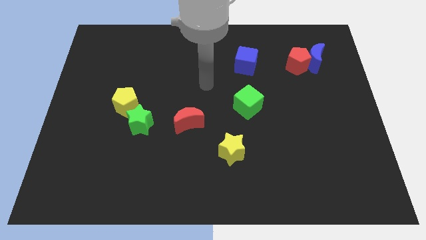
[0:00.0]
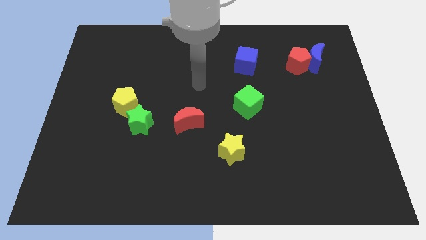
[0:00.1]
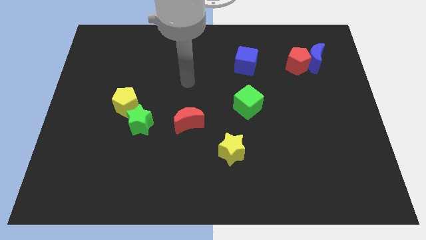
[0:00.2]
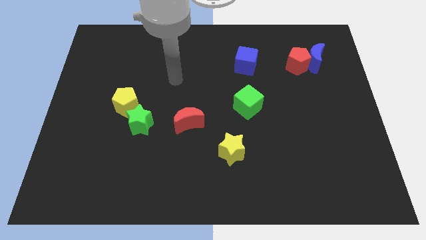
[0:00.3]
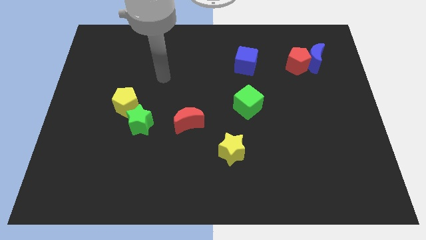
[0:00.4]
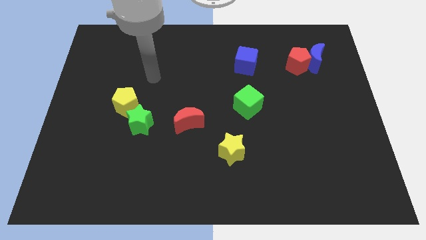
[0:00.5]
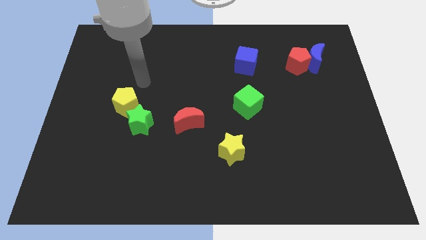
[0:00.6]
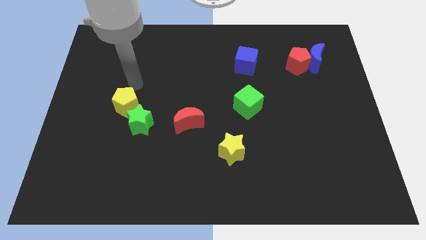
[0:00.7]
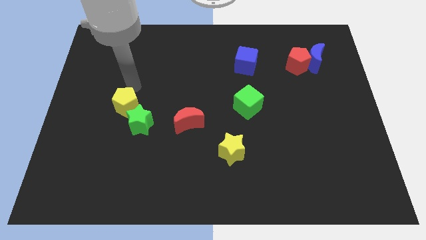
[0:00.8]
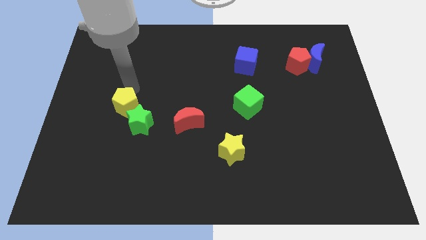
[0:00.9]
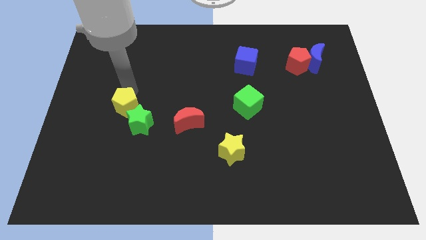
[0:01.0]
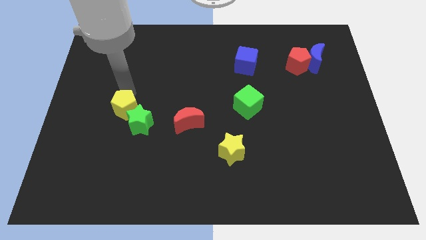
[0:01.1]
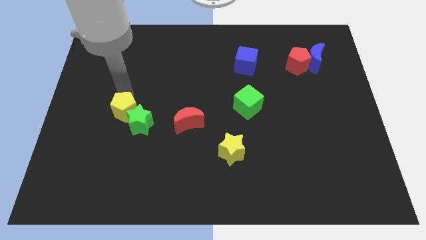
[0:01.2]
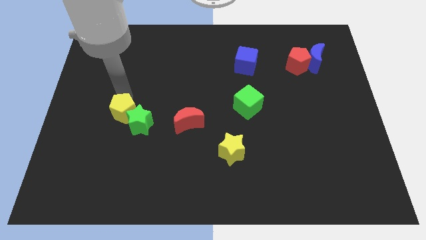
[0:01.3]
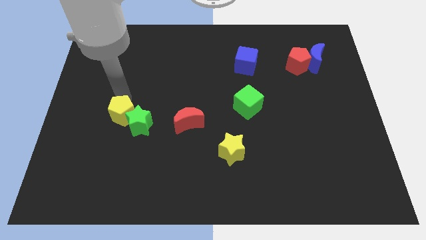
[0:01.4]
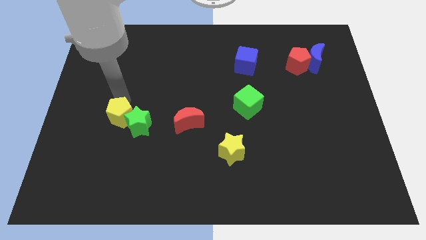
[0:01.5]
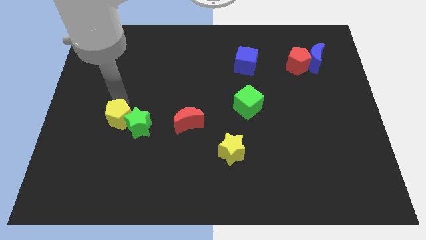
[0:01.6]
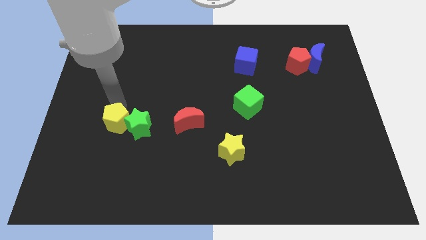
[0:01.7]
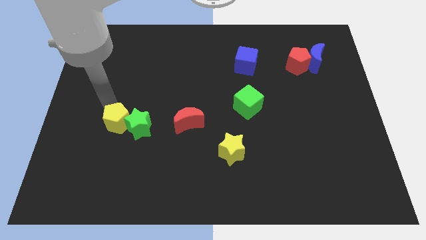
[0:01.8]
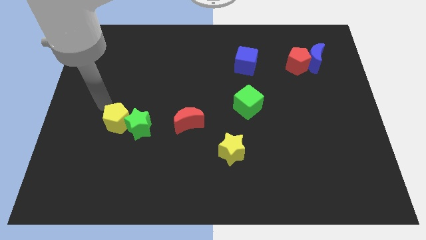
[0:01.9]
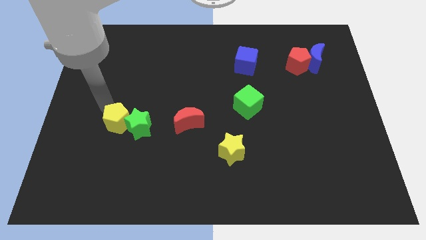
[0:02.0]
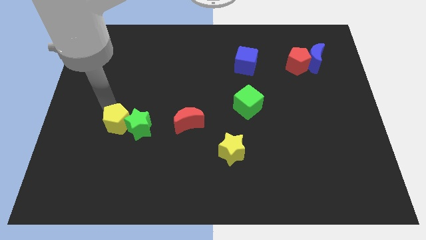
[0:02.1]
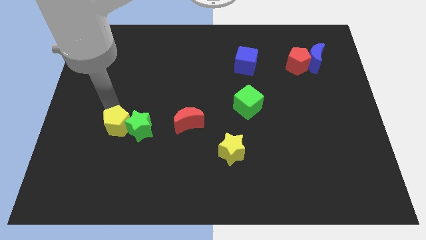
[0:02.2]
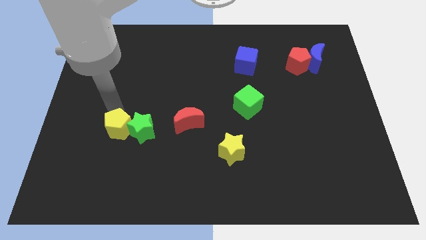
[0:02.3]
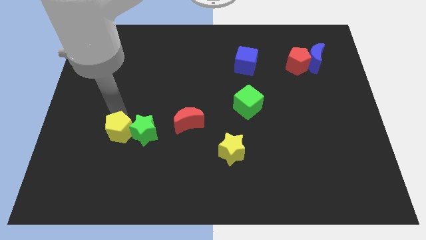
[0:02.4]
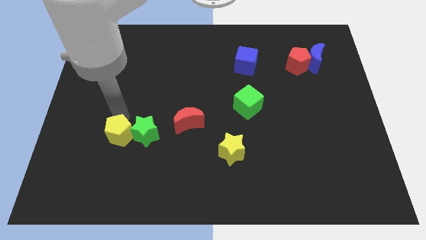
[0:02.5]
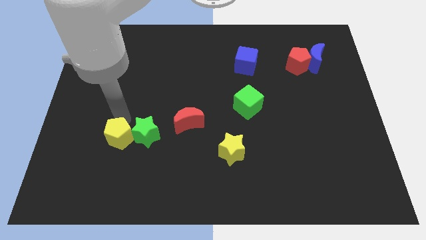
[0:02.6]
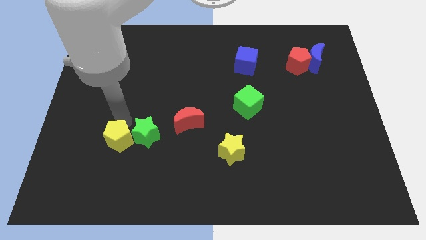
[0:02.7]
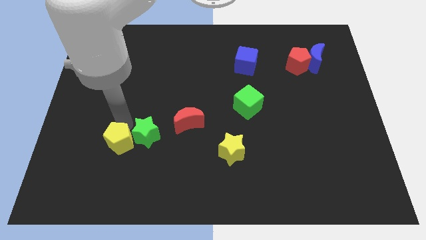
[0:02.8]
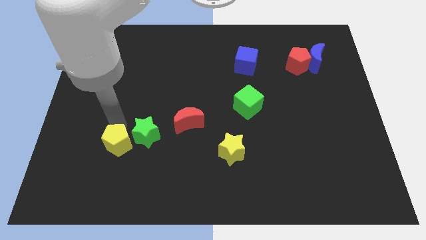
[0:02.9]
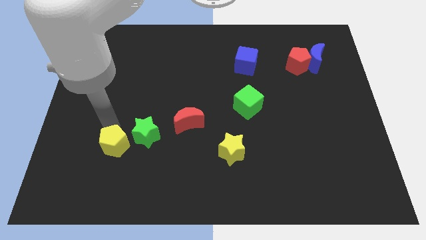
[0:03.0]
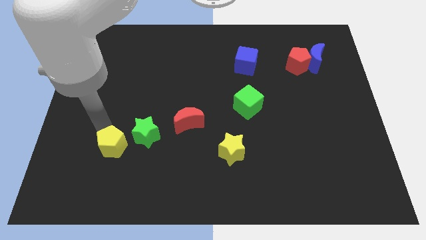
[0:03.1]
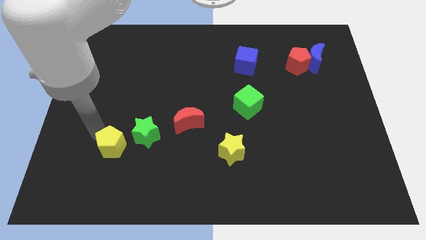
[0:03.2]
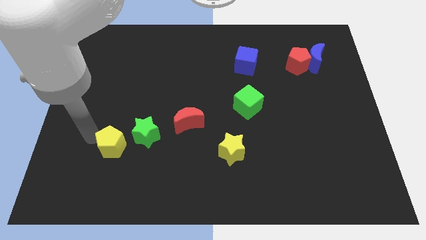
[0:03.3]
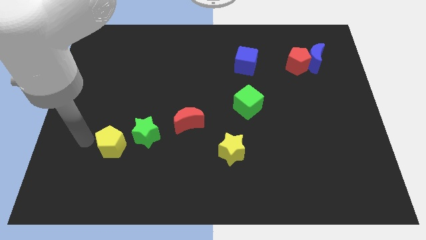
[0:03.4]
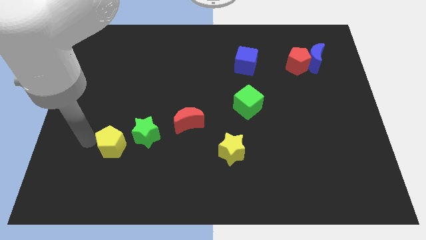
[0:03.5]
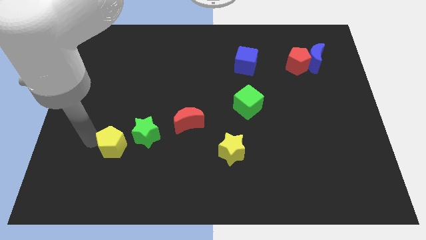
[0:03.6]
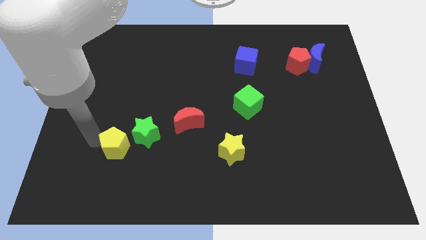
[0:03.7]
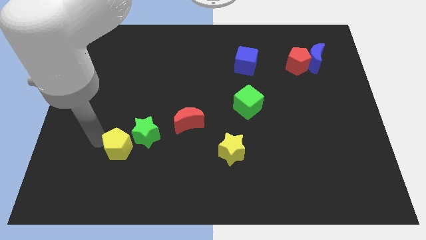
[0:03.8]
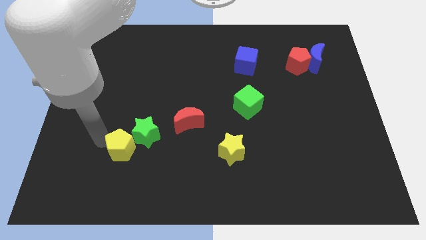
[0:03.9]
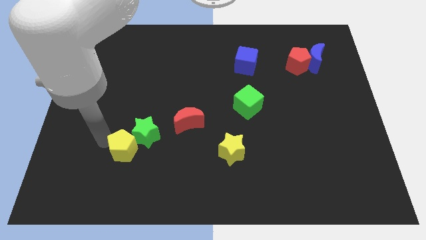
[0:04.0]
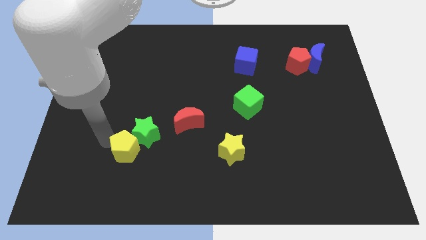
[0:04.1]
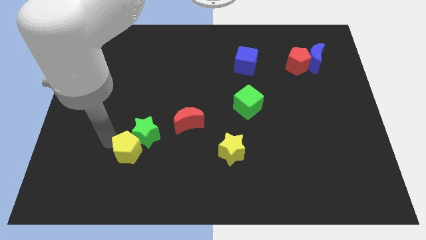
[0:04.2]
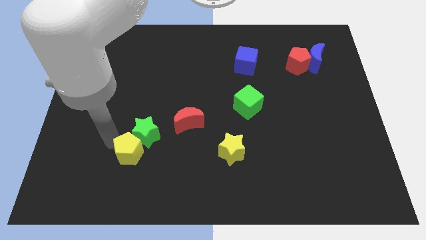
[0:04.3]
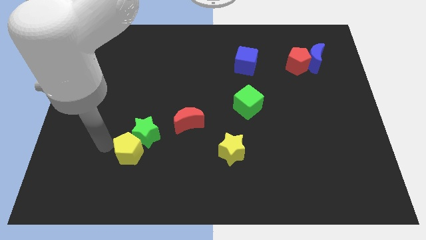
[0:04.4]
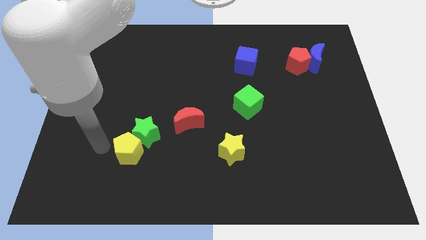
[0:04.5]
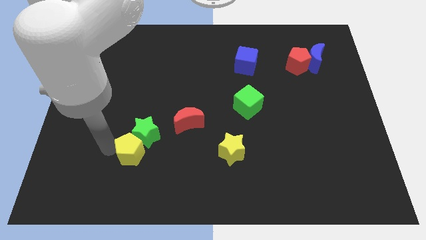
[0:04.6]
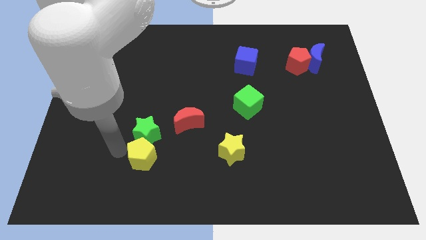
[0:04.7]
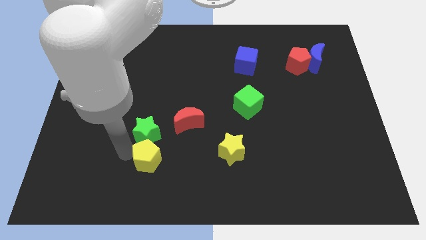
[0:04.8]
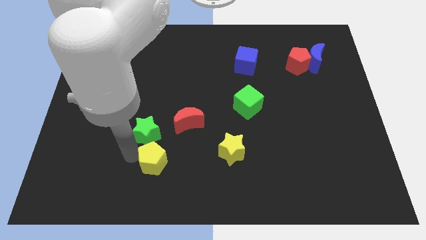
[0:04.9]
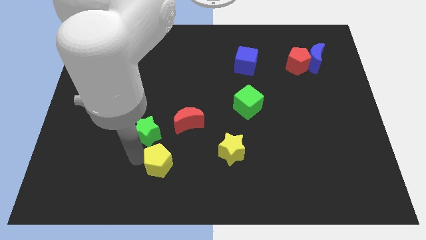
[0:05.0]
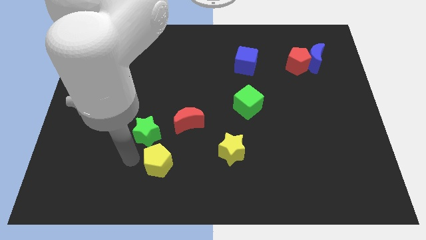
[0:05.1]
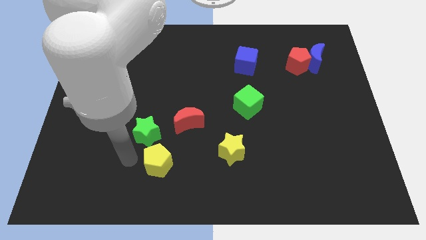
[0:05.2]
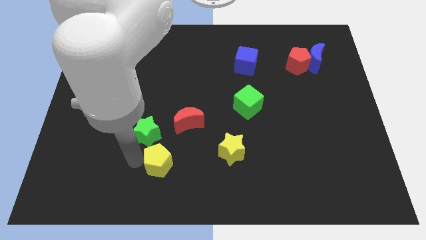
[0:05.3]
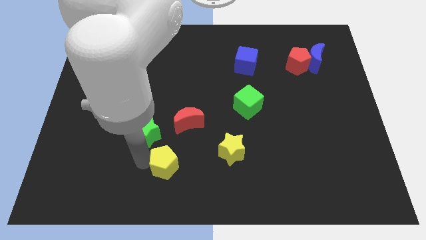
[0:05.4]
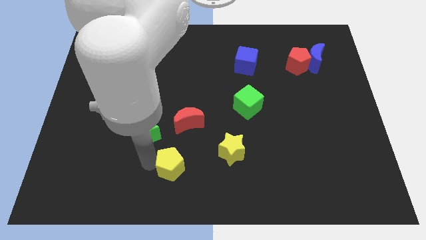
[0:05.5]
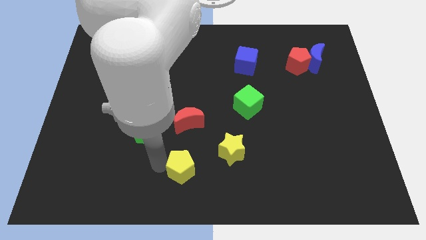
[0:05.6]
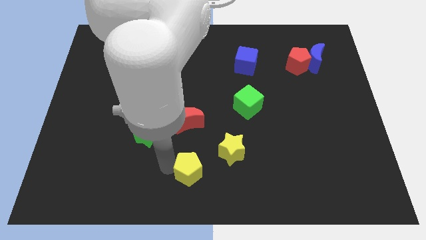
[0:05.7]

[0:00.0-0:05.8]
move the yellow pentagon to the bottom left of the yellow star

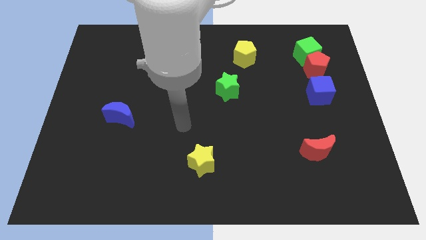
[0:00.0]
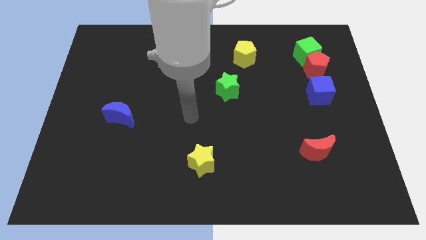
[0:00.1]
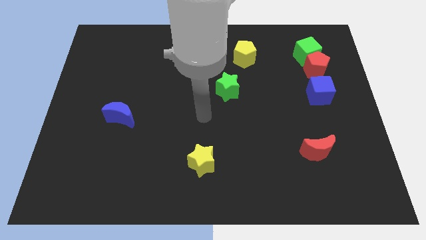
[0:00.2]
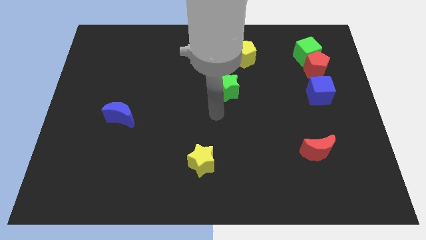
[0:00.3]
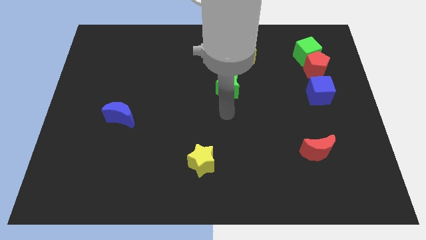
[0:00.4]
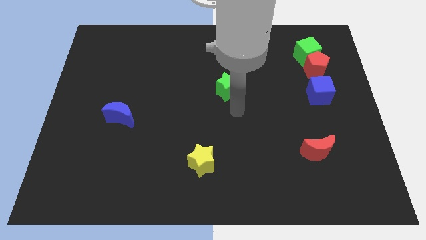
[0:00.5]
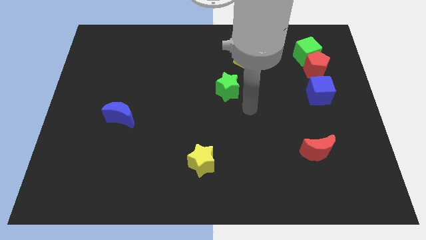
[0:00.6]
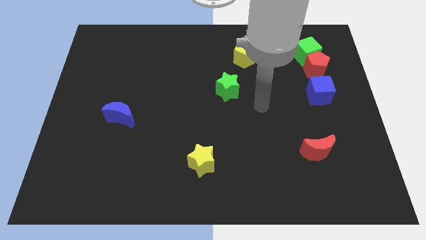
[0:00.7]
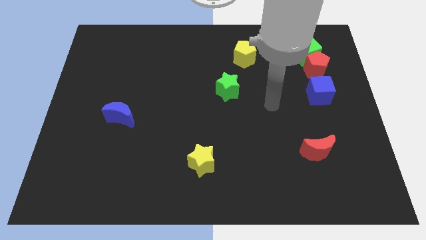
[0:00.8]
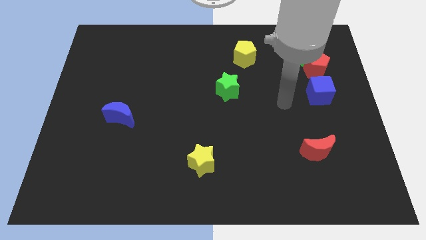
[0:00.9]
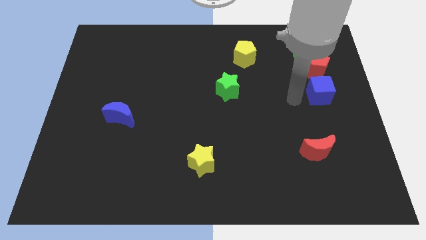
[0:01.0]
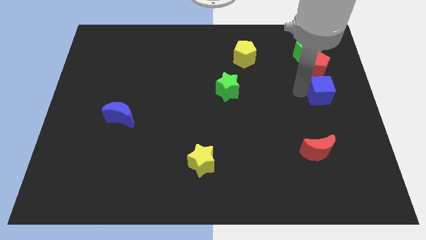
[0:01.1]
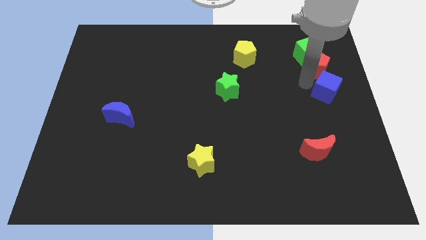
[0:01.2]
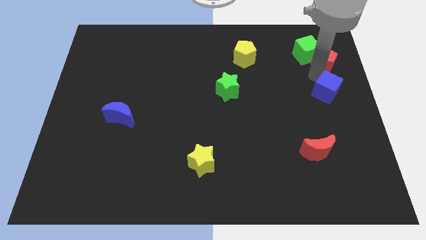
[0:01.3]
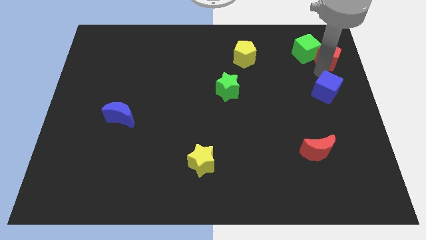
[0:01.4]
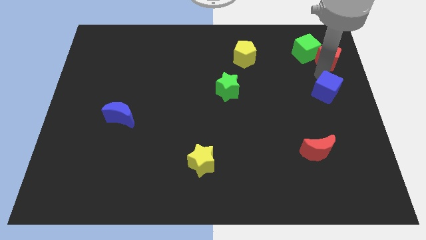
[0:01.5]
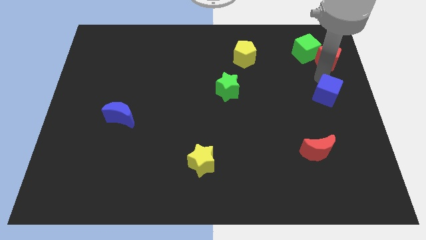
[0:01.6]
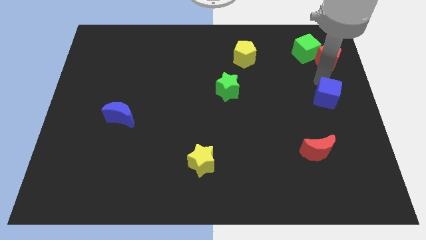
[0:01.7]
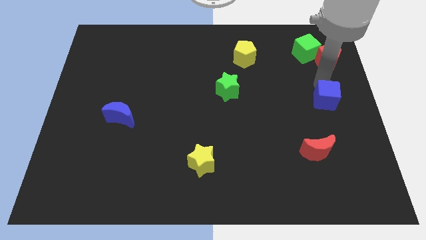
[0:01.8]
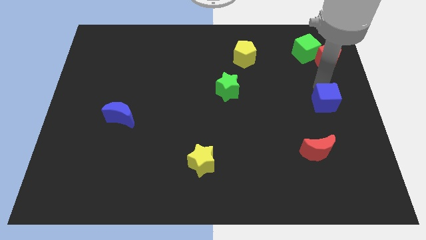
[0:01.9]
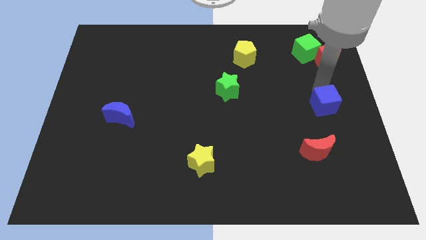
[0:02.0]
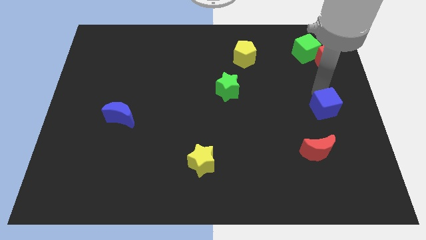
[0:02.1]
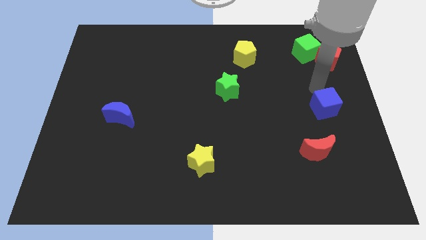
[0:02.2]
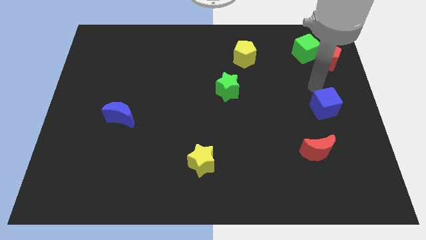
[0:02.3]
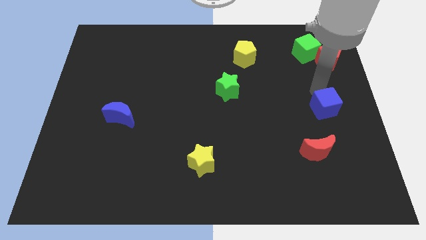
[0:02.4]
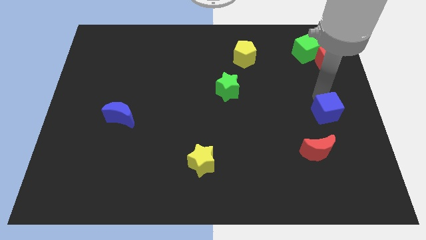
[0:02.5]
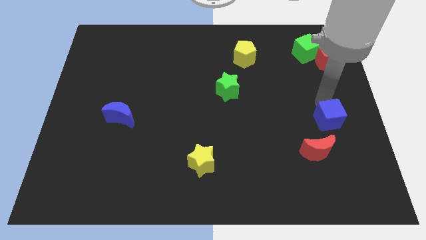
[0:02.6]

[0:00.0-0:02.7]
slide the blue cube to the top right of the red moon
